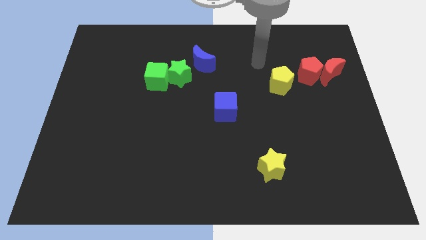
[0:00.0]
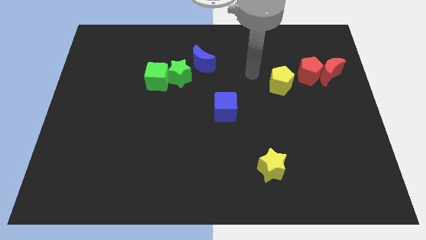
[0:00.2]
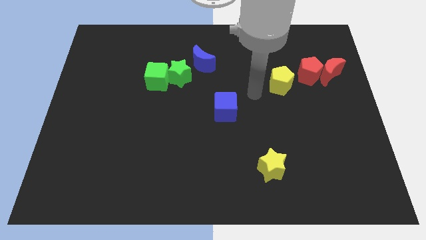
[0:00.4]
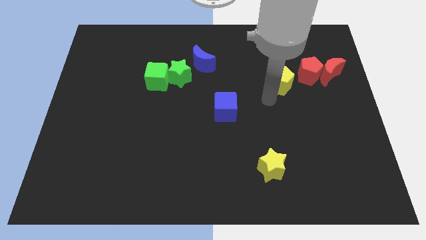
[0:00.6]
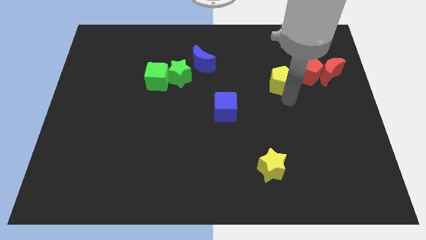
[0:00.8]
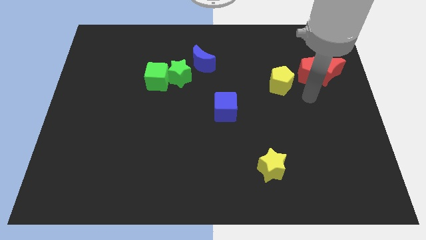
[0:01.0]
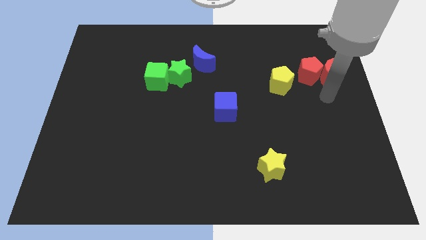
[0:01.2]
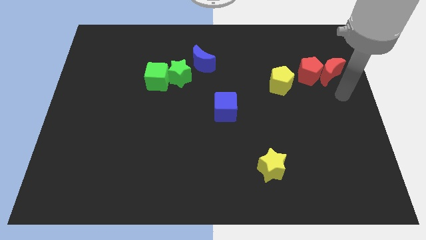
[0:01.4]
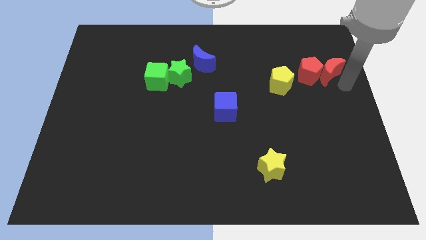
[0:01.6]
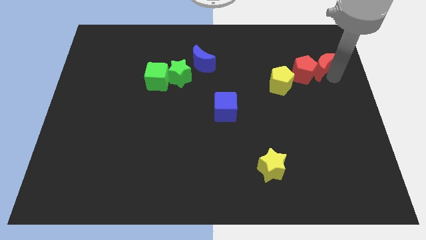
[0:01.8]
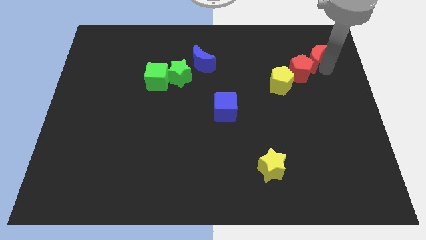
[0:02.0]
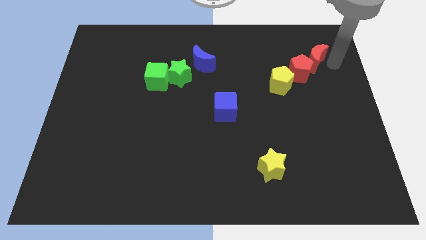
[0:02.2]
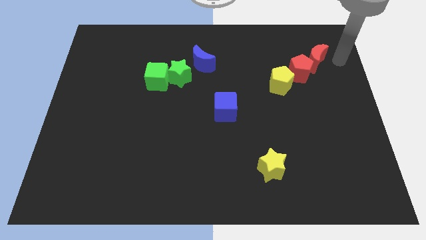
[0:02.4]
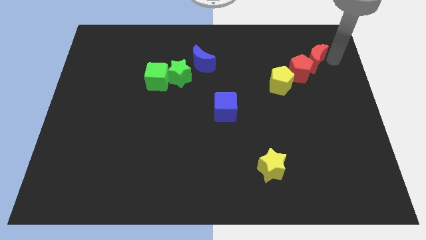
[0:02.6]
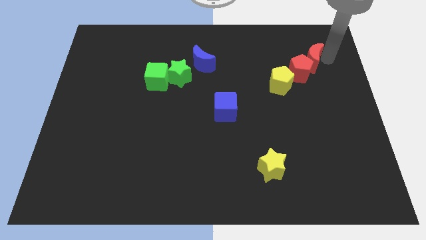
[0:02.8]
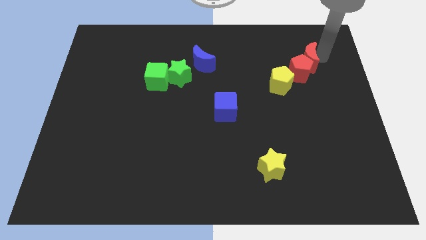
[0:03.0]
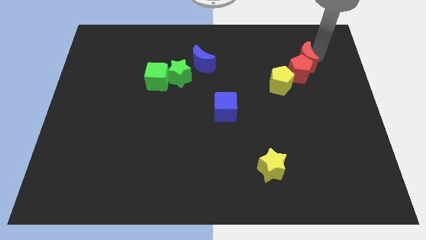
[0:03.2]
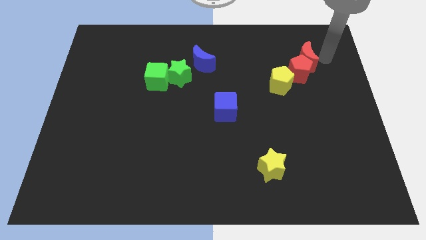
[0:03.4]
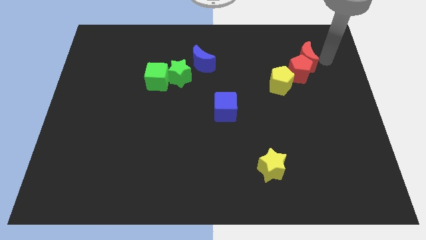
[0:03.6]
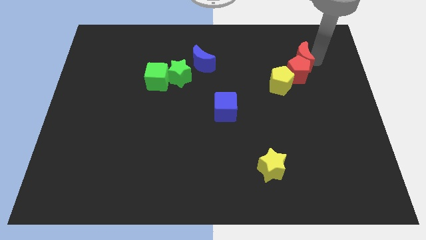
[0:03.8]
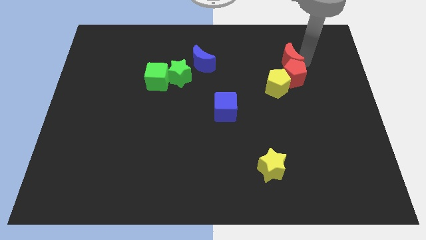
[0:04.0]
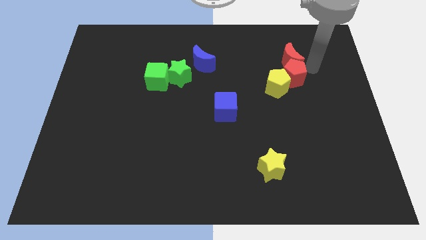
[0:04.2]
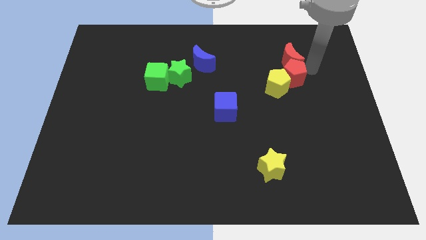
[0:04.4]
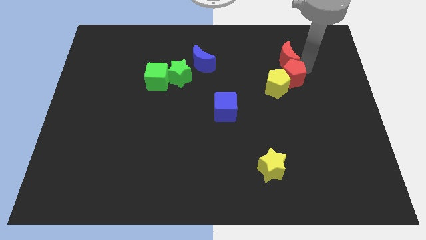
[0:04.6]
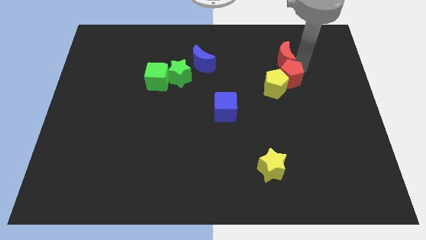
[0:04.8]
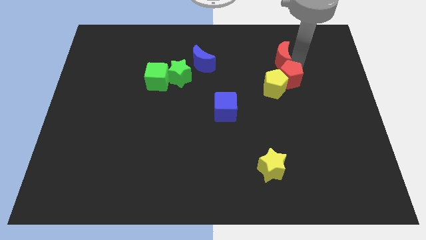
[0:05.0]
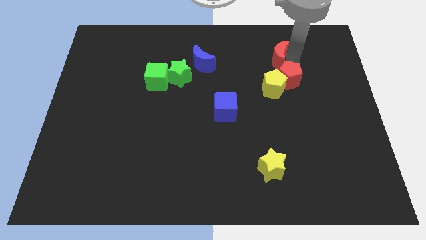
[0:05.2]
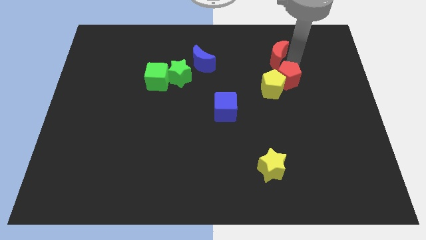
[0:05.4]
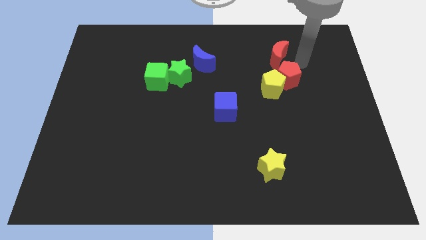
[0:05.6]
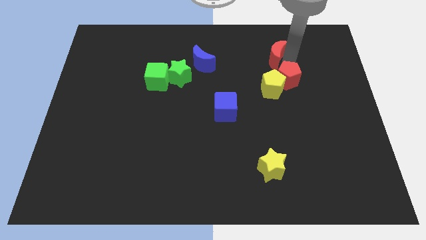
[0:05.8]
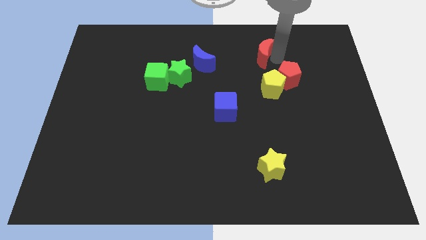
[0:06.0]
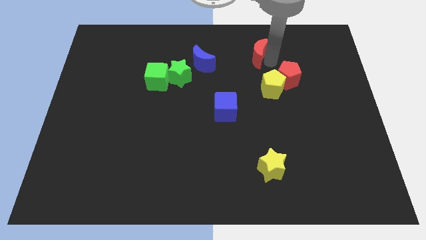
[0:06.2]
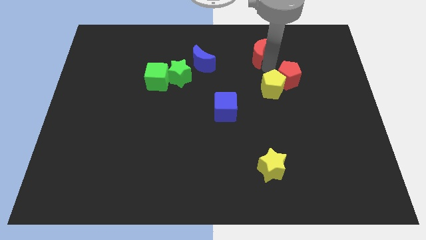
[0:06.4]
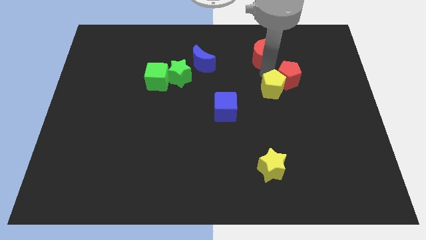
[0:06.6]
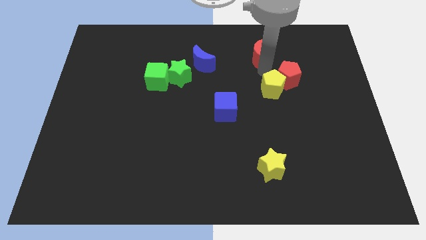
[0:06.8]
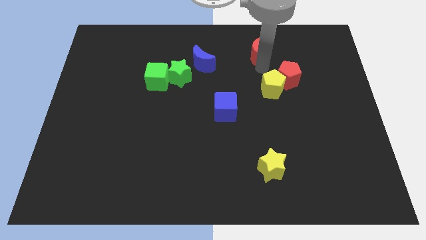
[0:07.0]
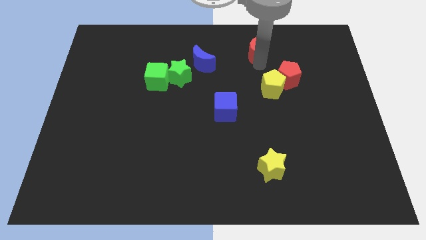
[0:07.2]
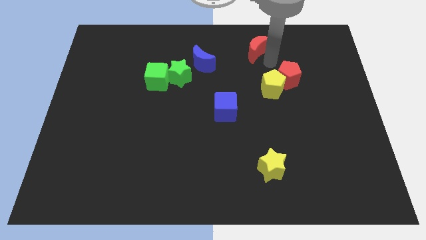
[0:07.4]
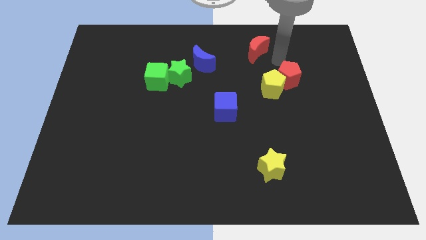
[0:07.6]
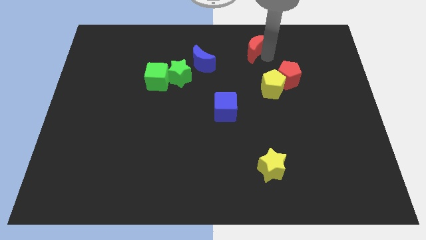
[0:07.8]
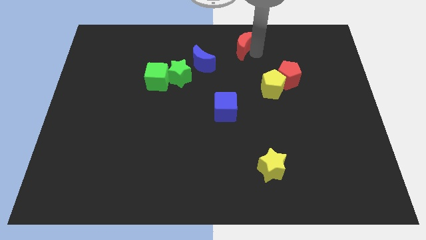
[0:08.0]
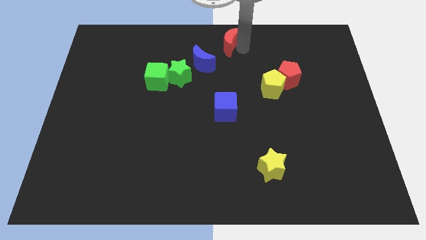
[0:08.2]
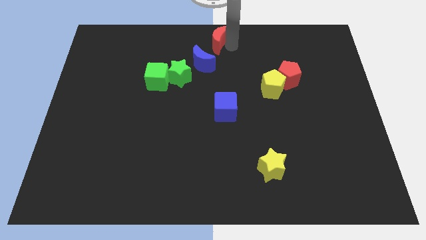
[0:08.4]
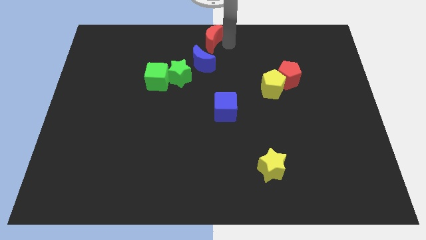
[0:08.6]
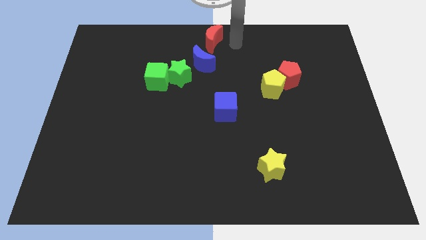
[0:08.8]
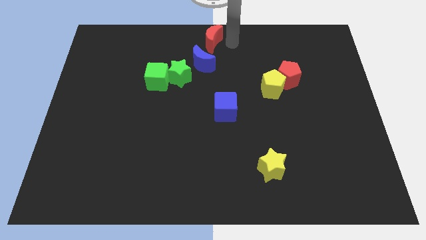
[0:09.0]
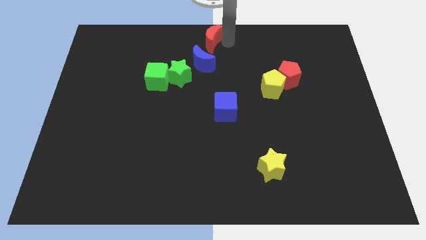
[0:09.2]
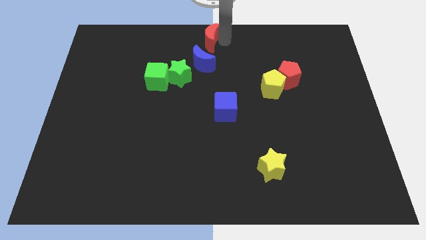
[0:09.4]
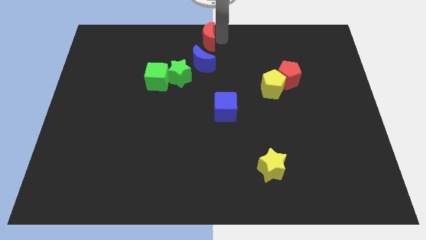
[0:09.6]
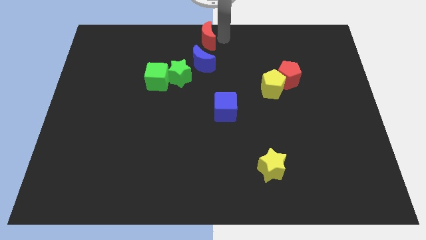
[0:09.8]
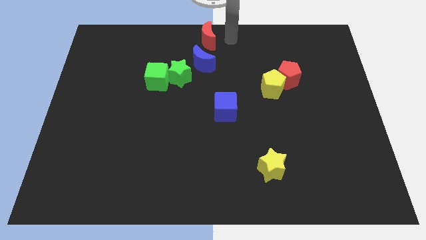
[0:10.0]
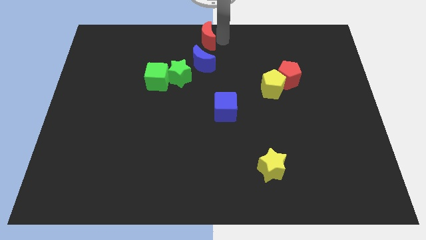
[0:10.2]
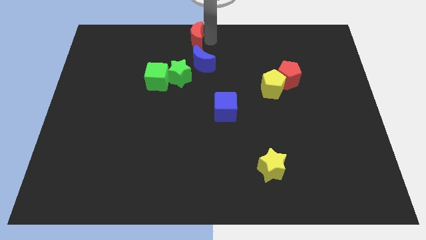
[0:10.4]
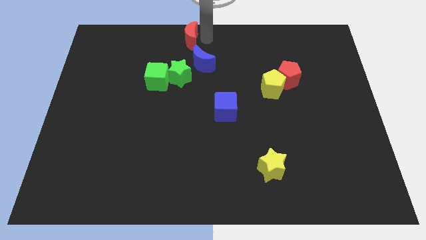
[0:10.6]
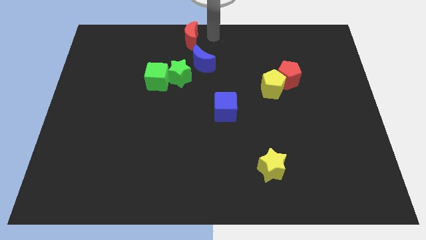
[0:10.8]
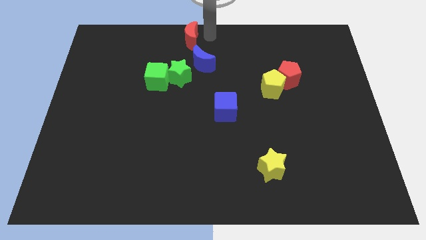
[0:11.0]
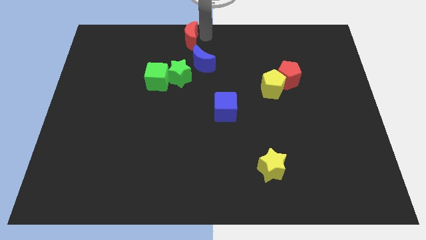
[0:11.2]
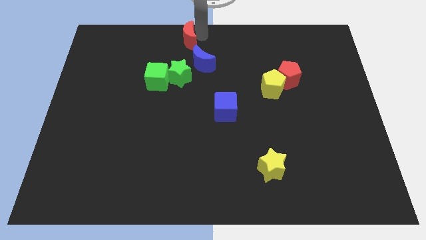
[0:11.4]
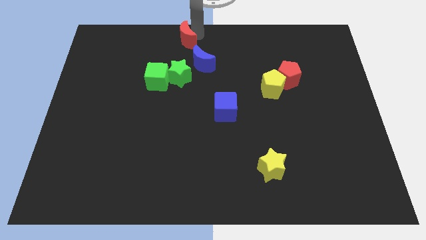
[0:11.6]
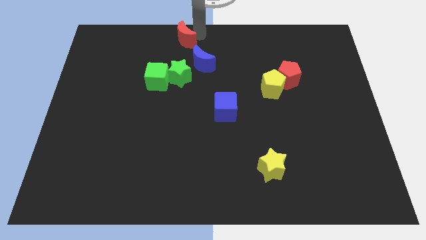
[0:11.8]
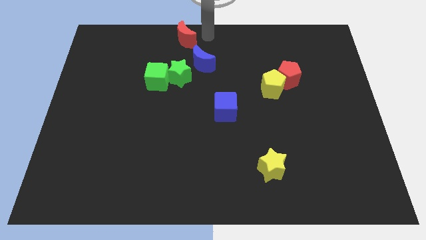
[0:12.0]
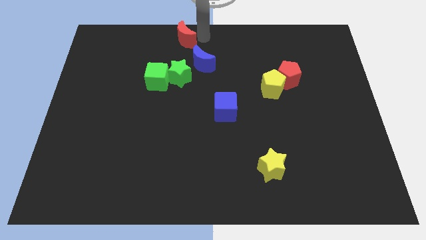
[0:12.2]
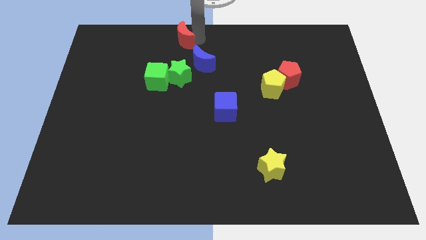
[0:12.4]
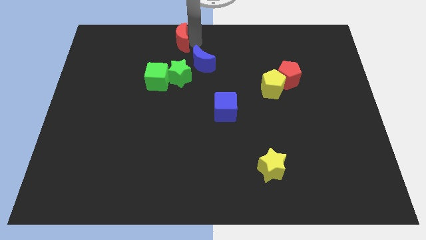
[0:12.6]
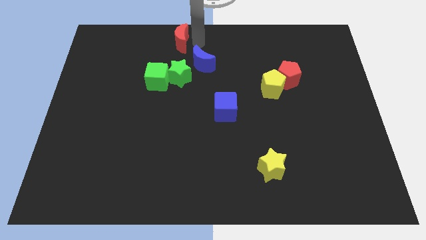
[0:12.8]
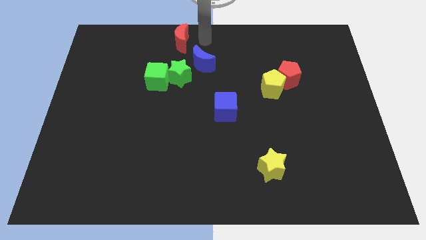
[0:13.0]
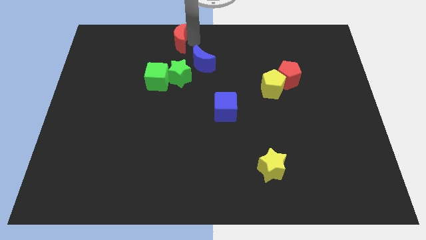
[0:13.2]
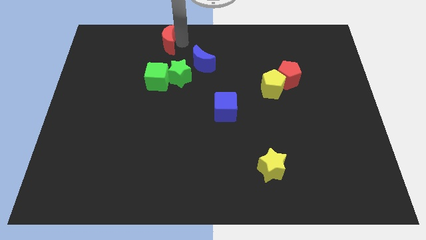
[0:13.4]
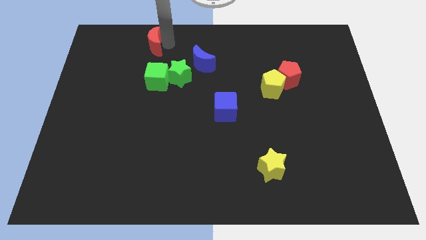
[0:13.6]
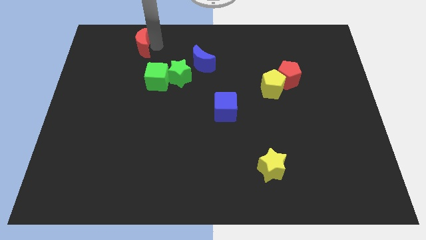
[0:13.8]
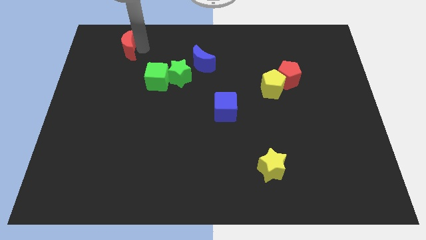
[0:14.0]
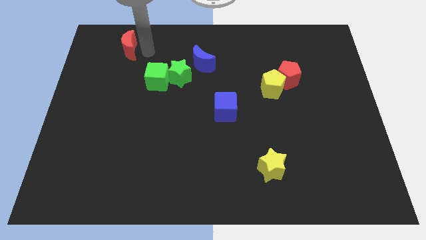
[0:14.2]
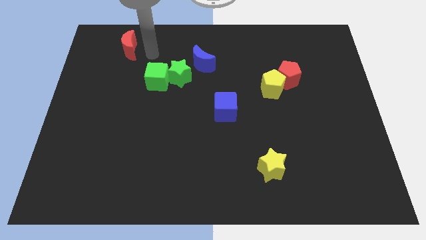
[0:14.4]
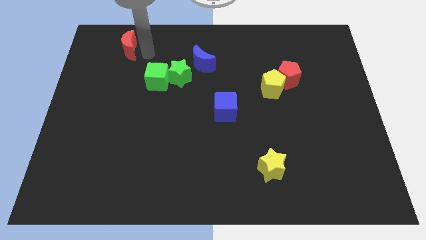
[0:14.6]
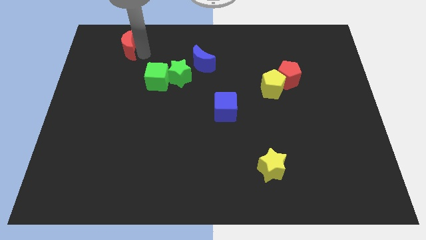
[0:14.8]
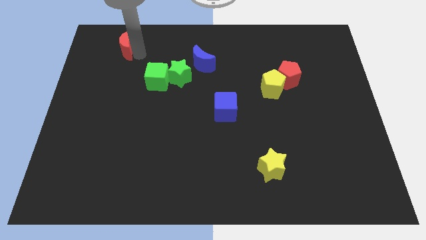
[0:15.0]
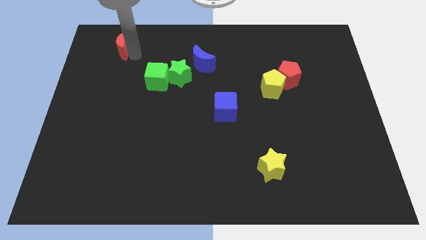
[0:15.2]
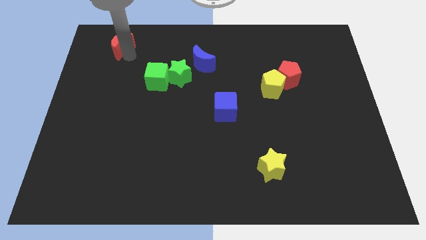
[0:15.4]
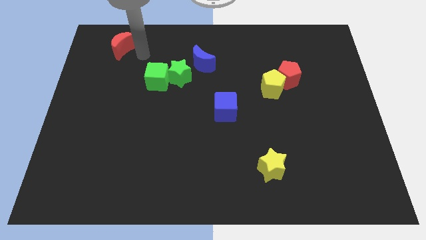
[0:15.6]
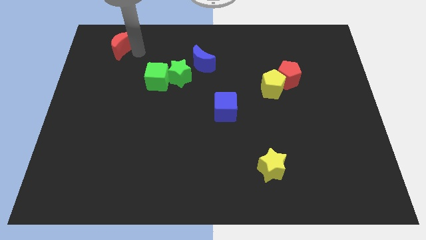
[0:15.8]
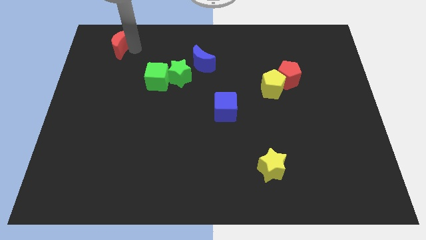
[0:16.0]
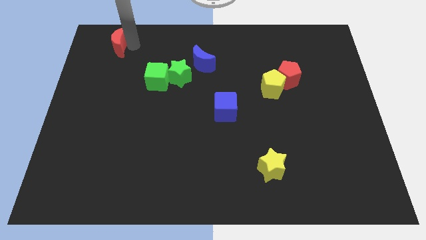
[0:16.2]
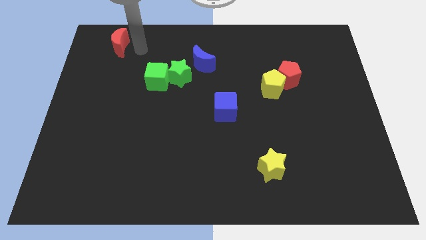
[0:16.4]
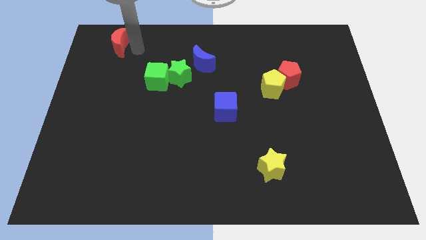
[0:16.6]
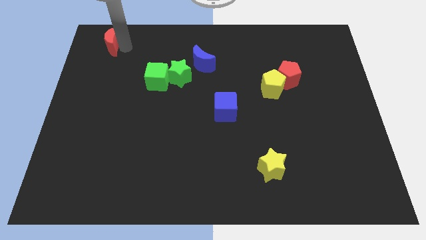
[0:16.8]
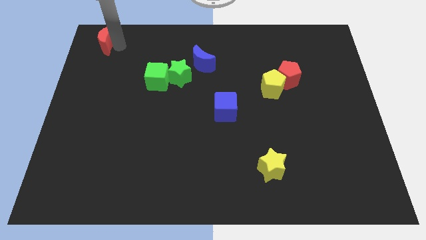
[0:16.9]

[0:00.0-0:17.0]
slide the red moon to the top left corner
